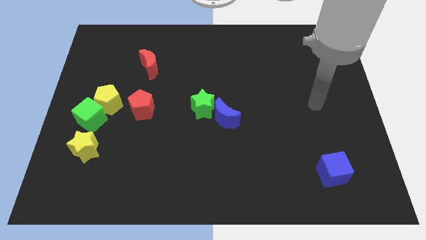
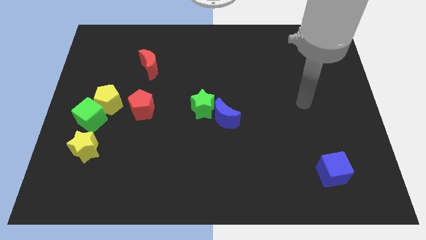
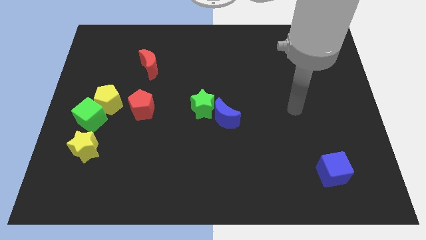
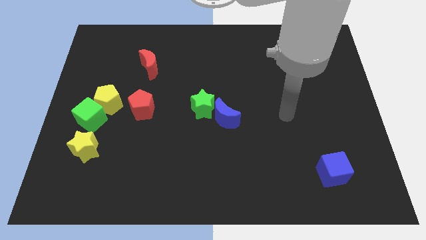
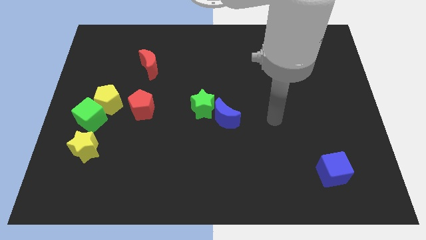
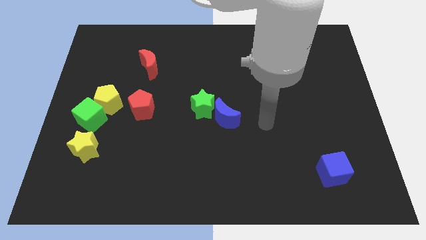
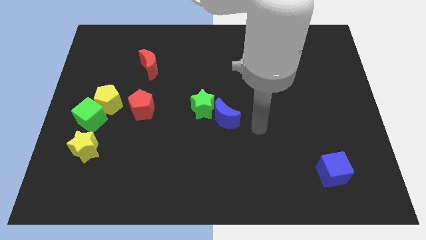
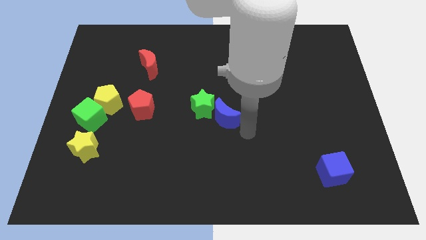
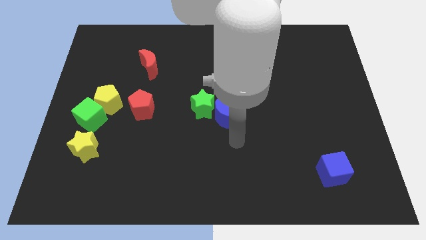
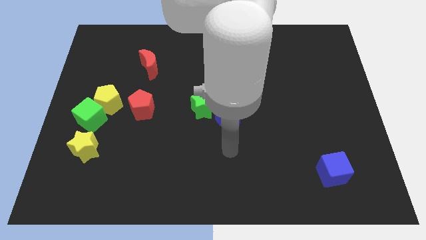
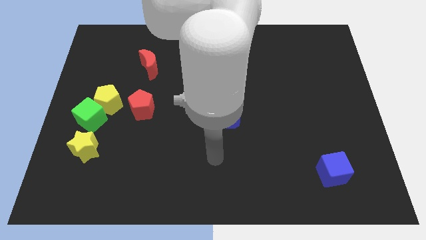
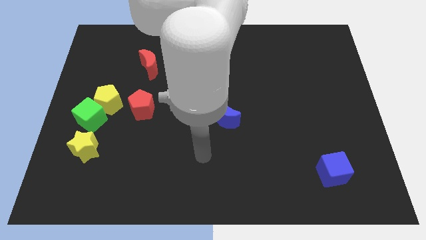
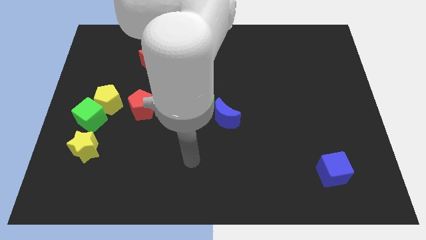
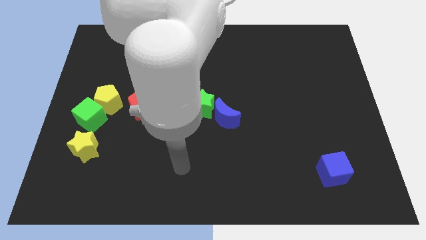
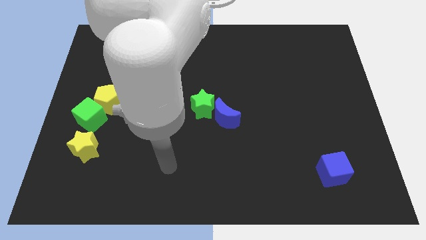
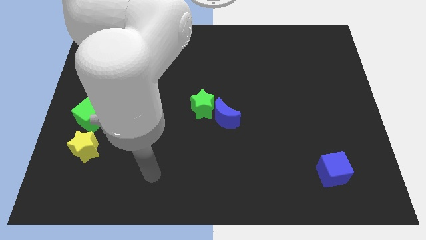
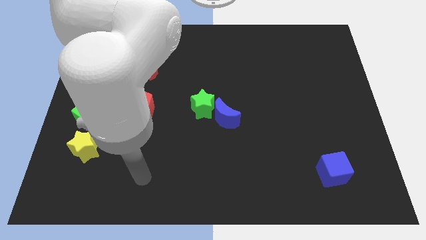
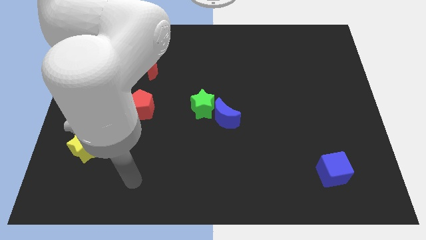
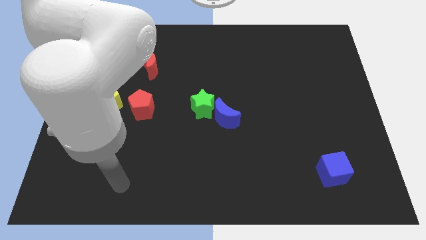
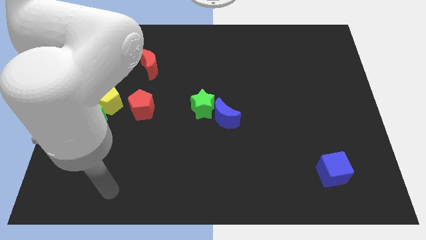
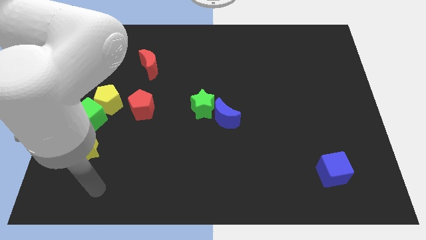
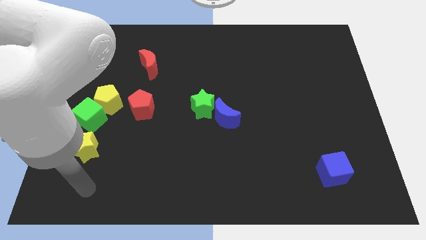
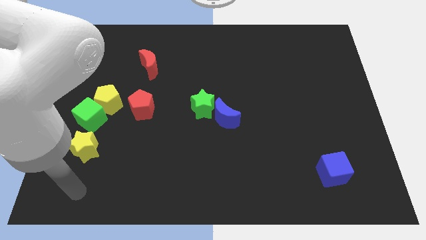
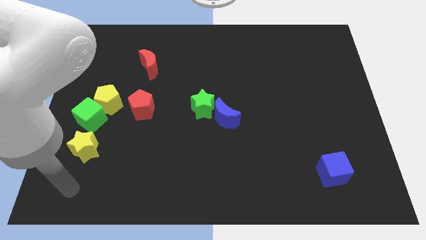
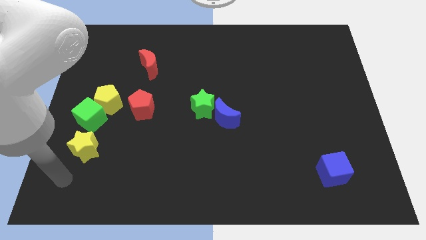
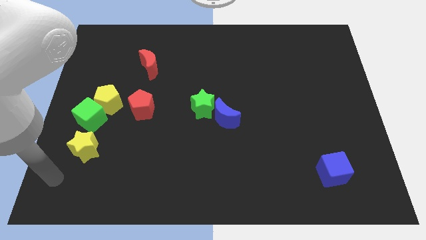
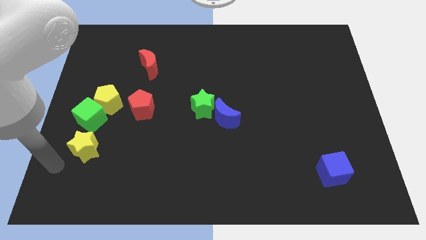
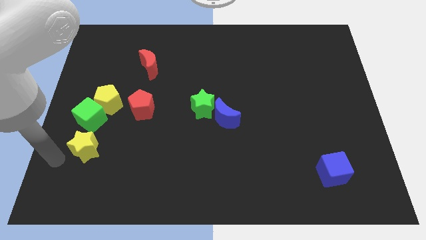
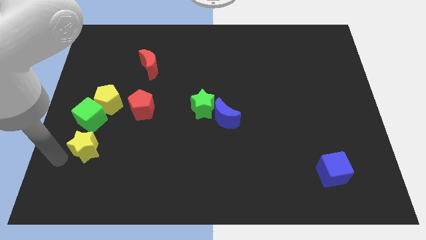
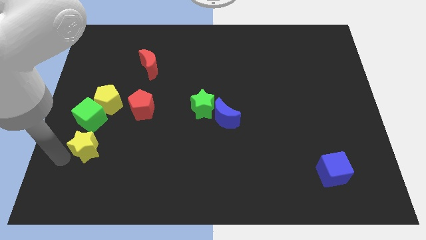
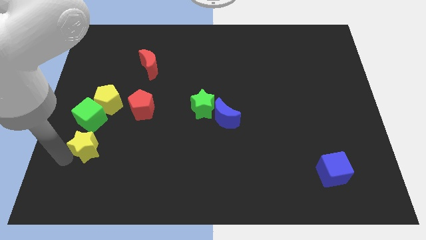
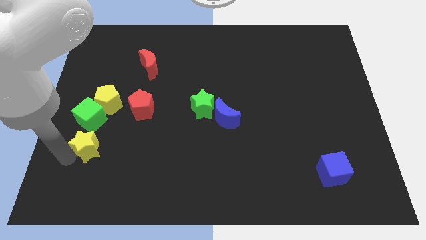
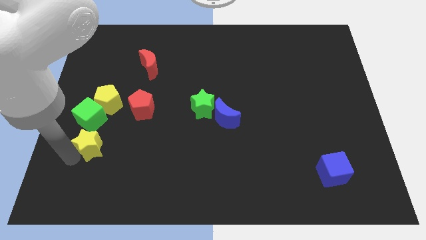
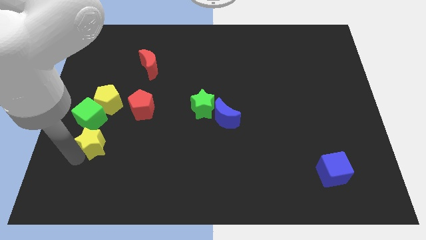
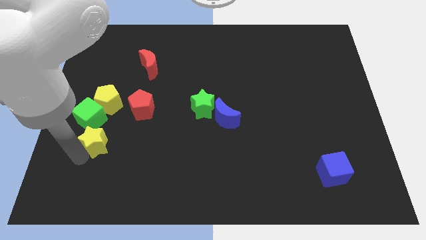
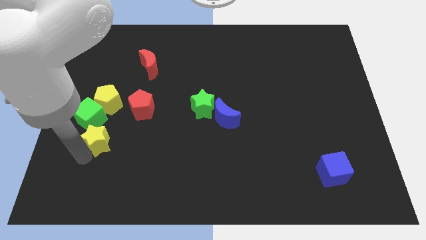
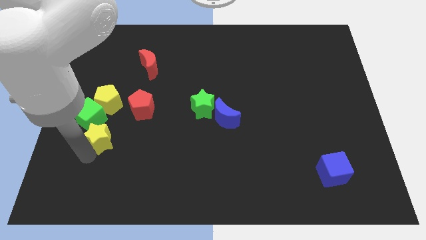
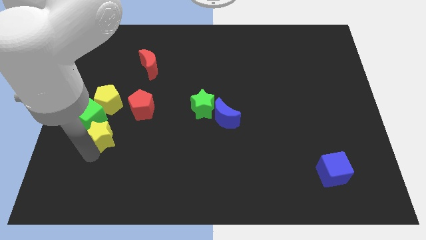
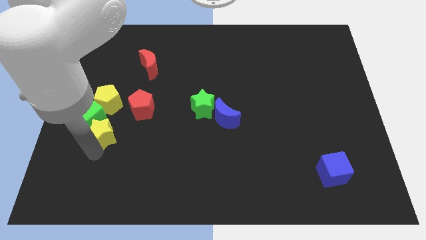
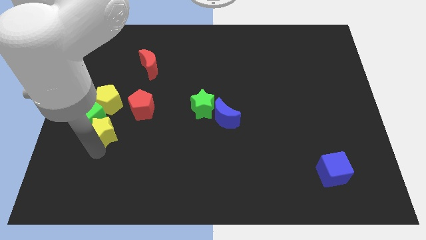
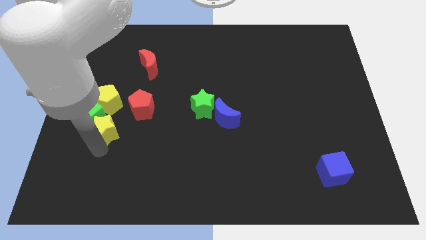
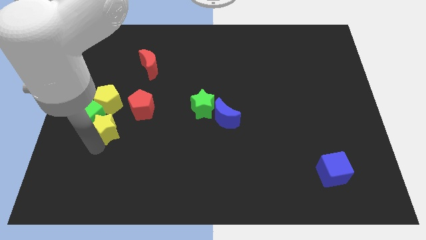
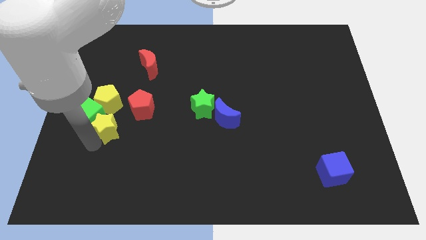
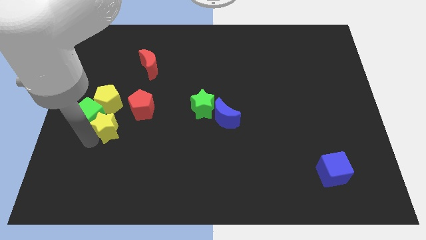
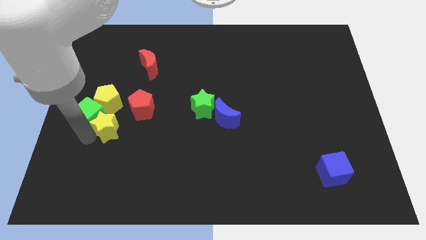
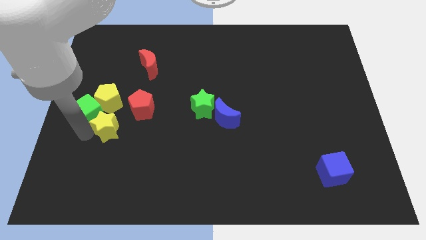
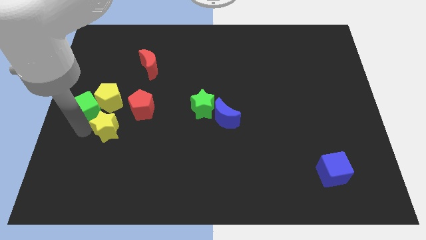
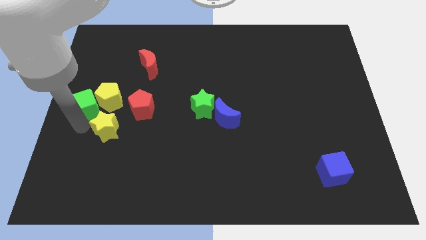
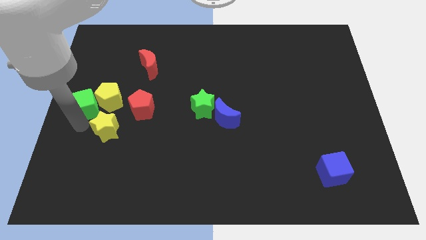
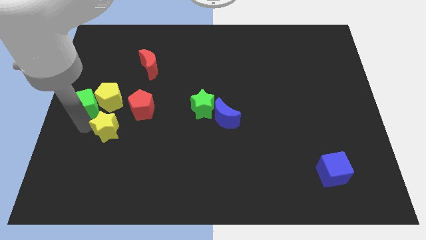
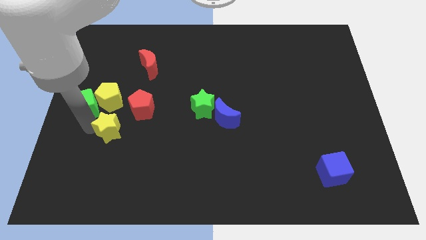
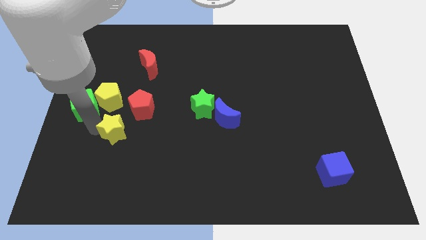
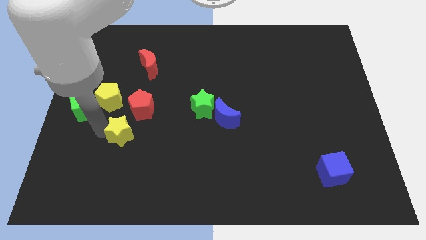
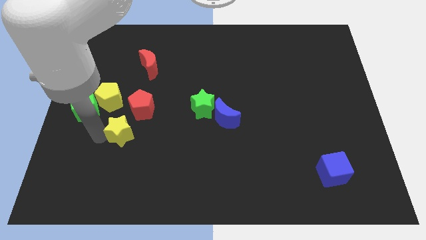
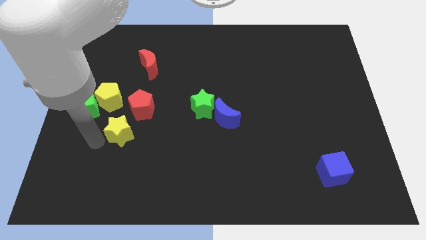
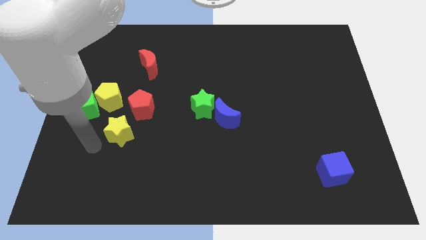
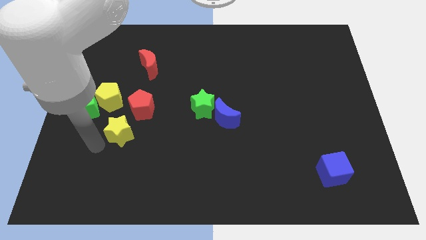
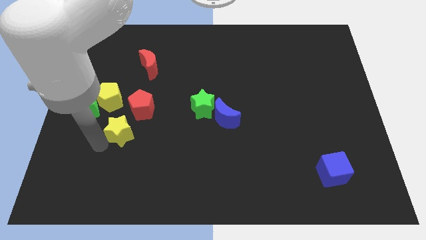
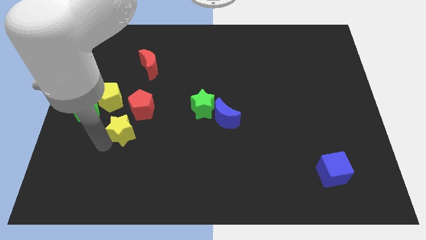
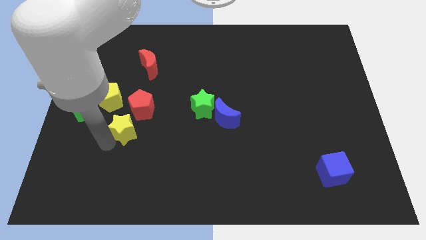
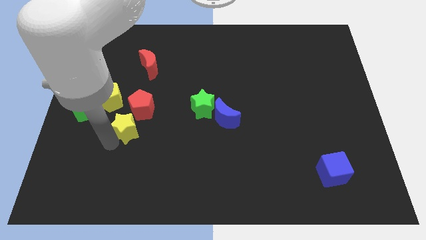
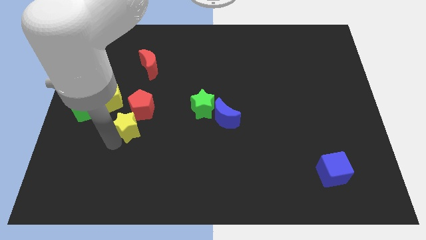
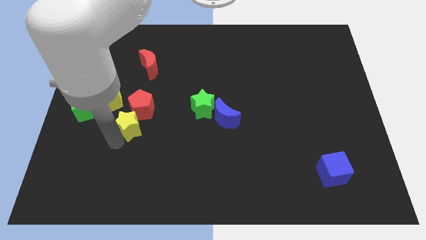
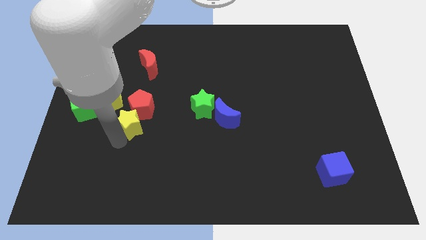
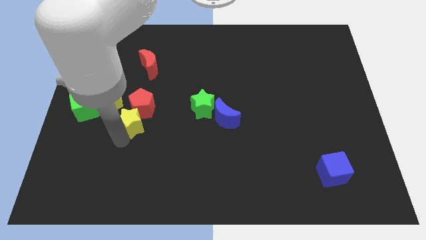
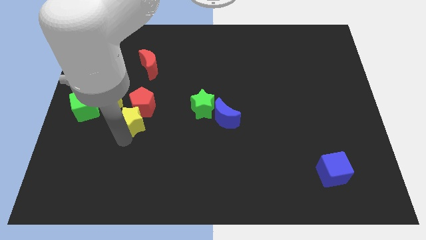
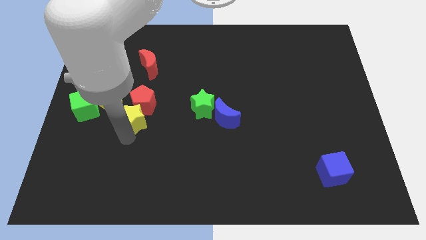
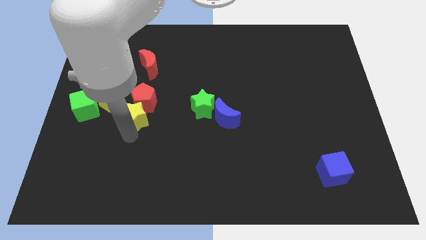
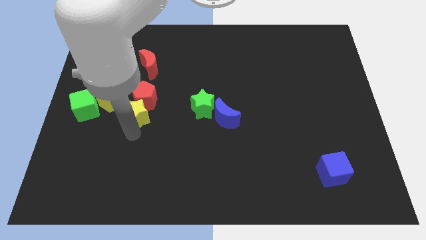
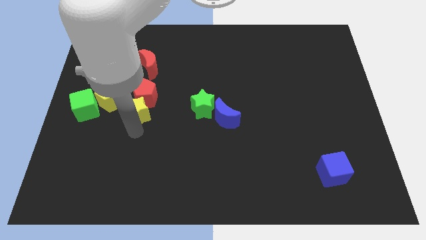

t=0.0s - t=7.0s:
slide the yellow star right of the yellow pentagon

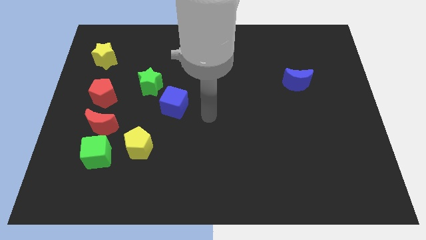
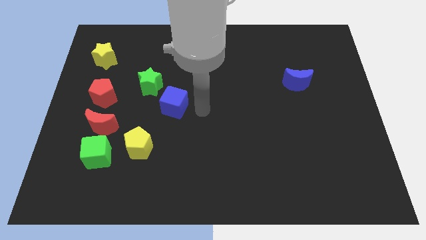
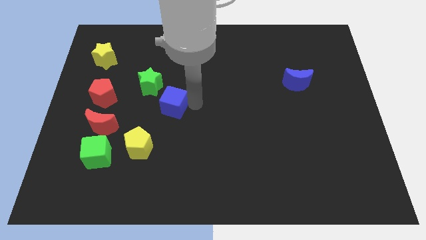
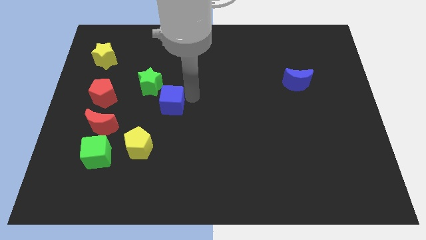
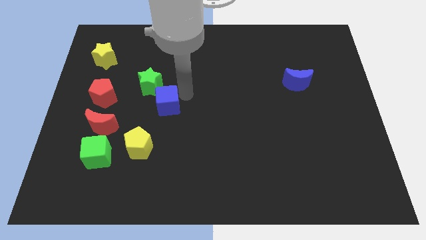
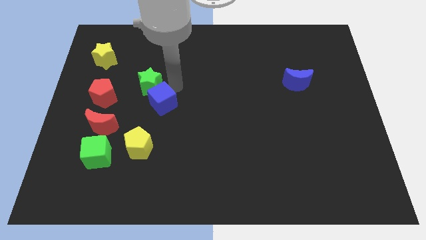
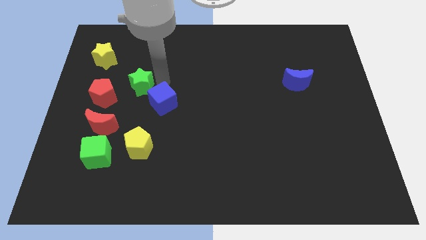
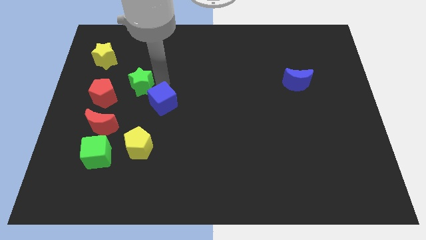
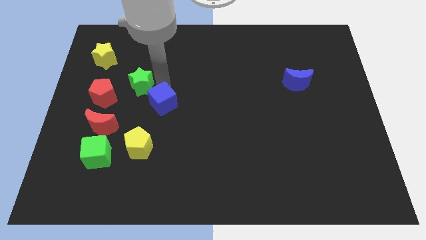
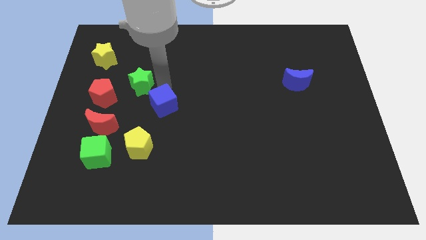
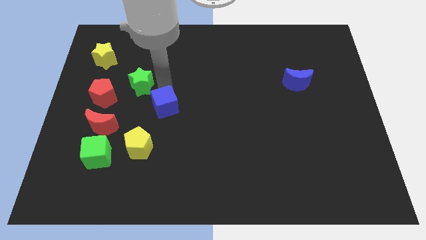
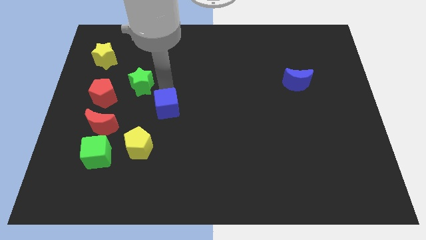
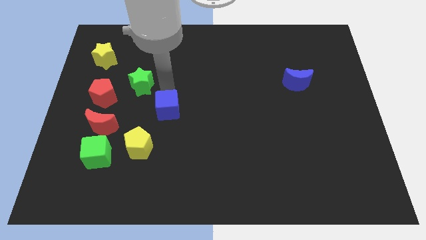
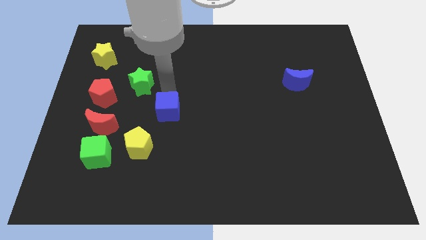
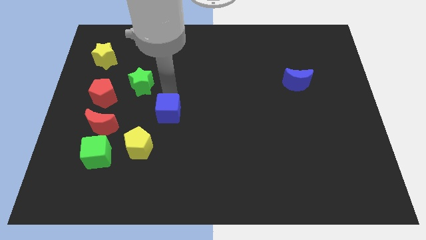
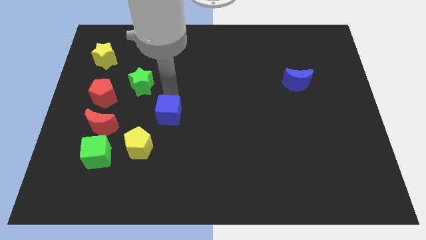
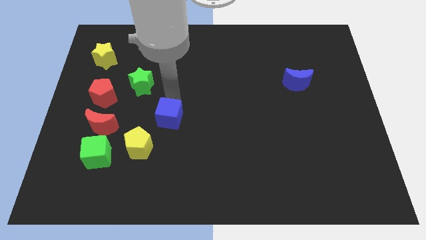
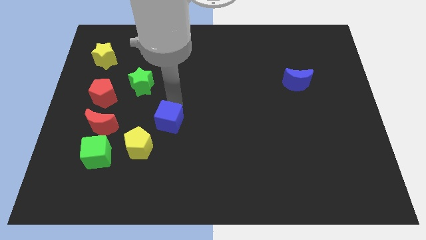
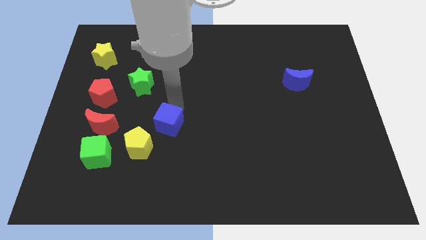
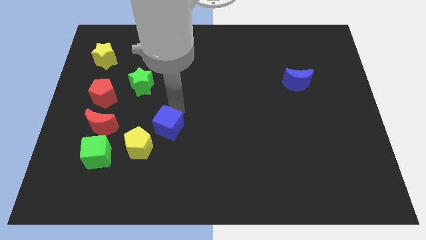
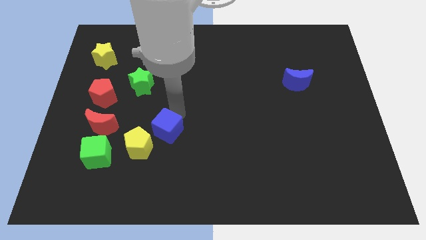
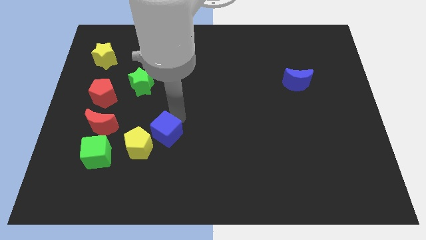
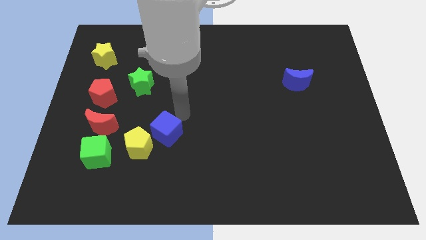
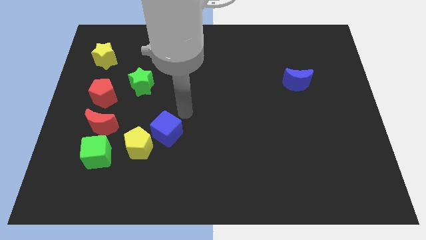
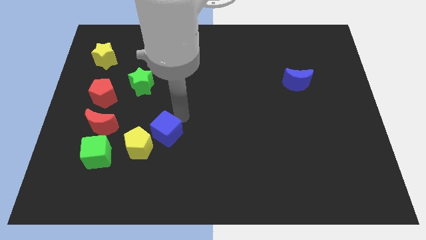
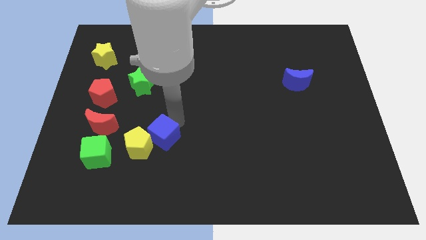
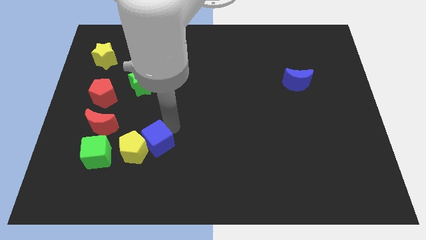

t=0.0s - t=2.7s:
move the blue cube right of the green cube
